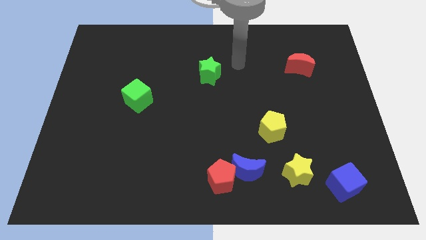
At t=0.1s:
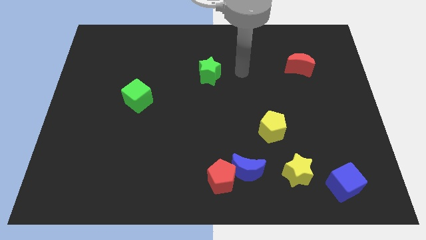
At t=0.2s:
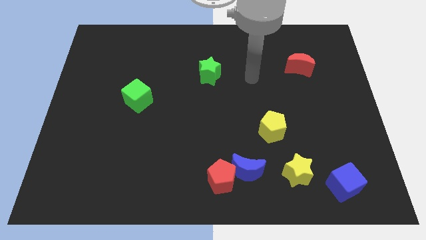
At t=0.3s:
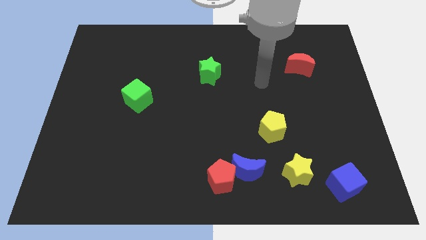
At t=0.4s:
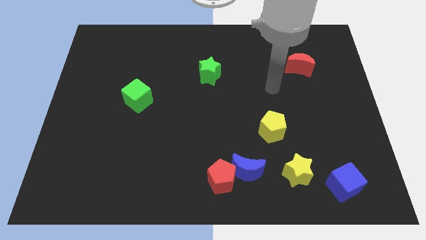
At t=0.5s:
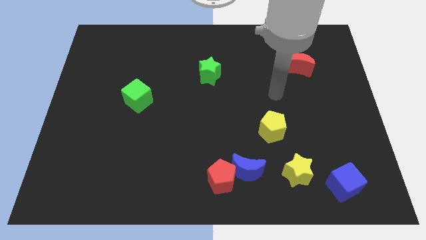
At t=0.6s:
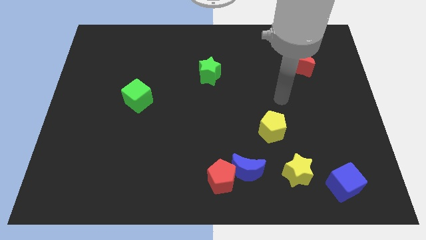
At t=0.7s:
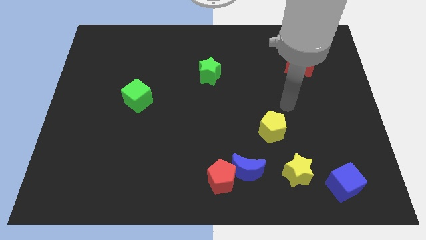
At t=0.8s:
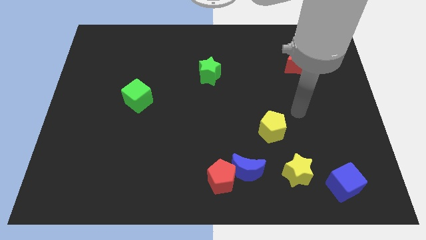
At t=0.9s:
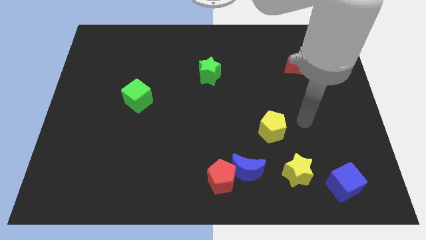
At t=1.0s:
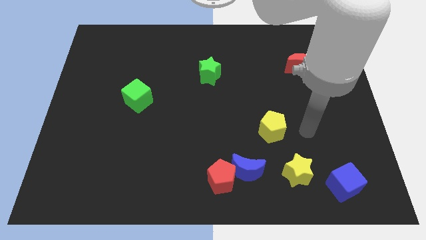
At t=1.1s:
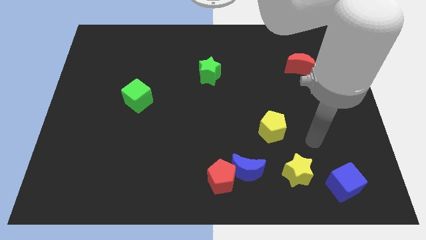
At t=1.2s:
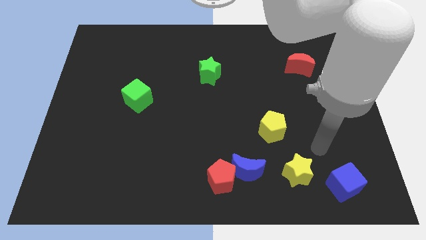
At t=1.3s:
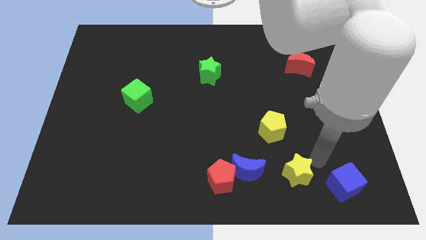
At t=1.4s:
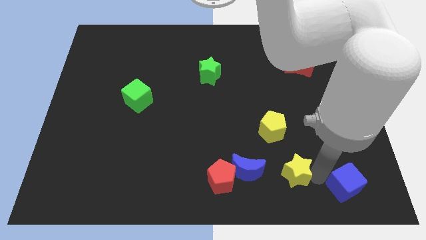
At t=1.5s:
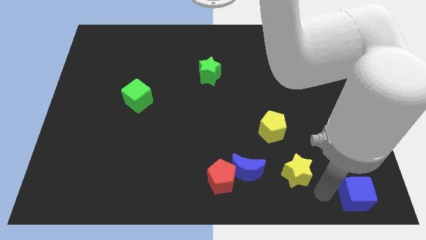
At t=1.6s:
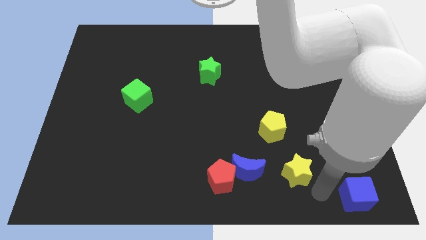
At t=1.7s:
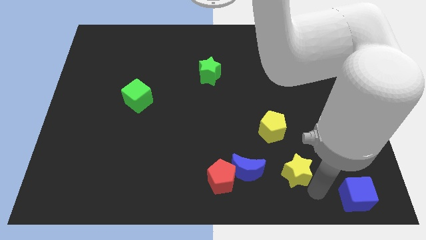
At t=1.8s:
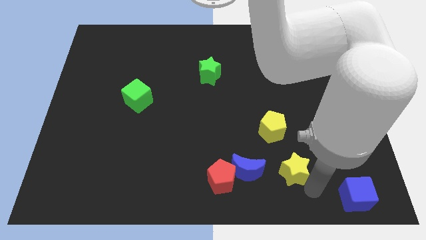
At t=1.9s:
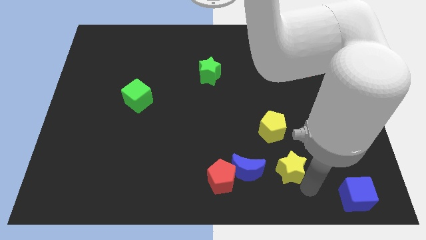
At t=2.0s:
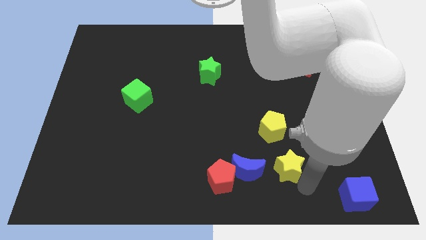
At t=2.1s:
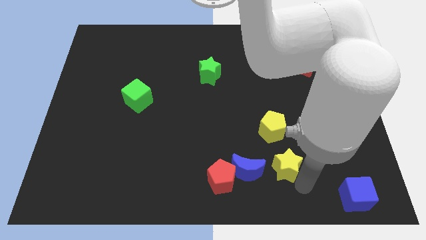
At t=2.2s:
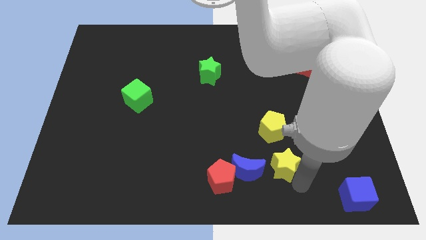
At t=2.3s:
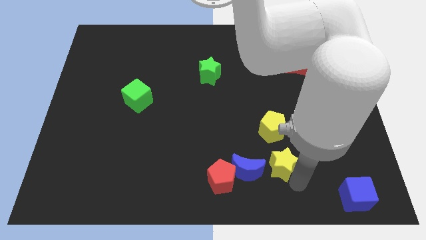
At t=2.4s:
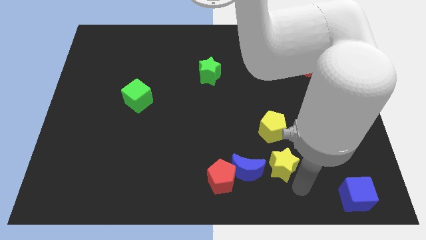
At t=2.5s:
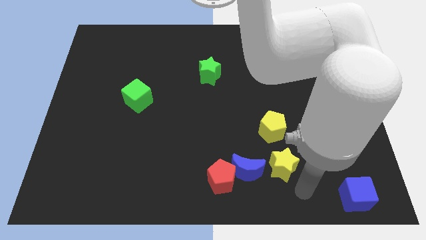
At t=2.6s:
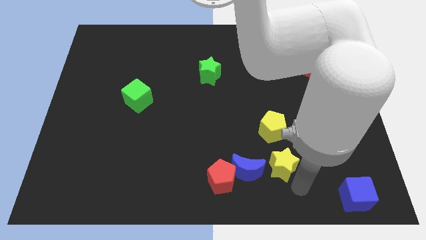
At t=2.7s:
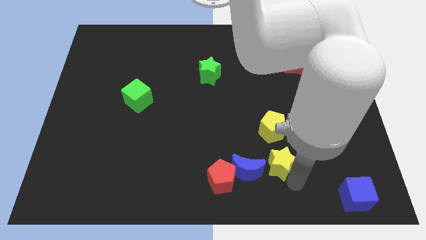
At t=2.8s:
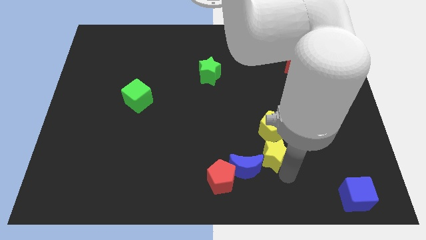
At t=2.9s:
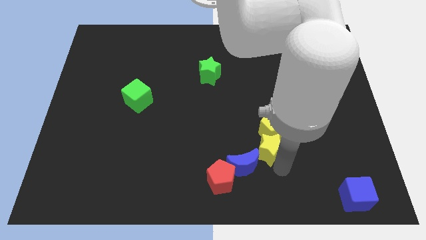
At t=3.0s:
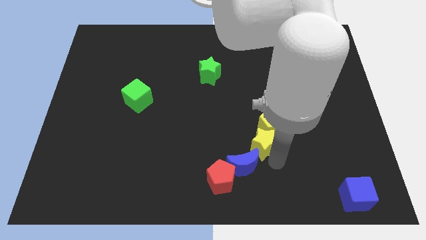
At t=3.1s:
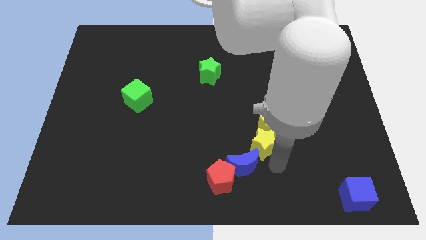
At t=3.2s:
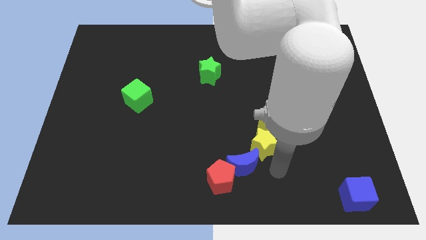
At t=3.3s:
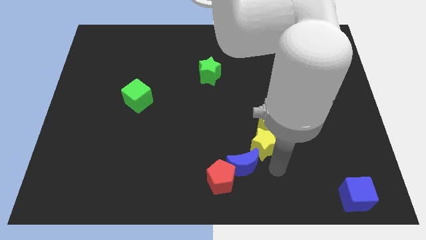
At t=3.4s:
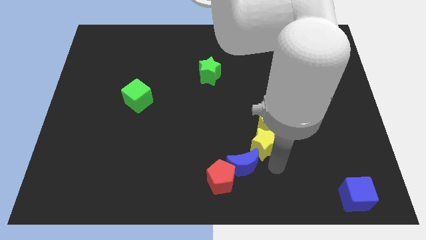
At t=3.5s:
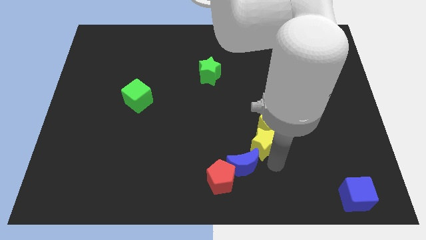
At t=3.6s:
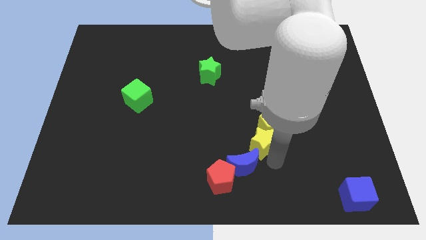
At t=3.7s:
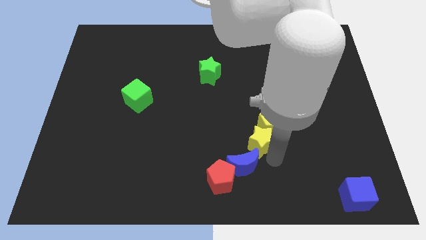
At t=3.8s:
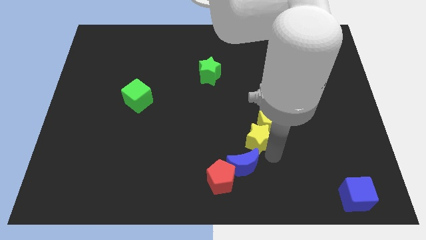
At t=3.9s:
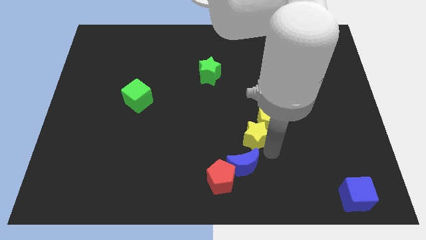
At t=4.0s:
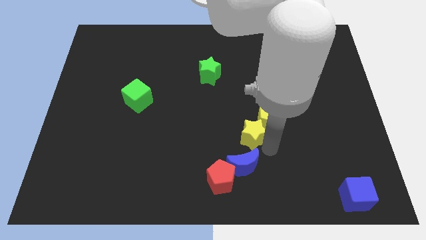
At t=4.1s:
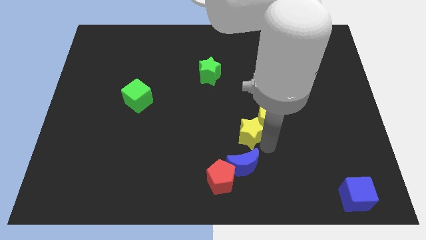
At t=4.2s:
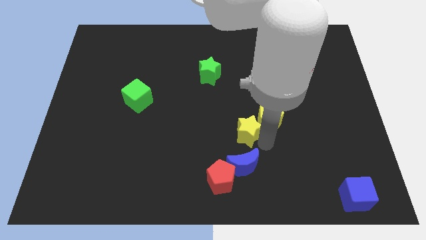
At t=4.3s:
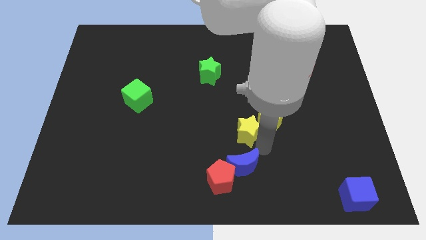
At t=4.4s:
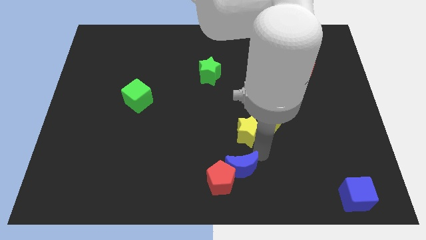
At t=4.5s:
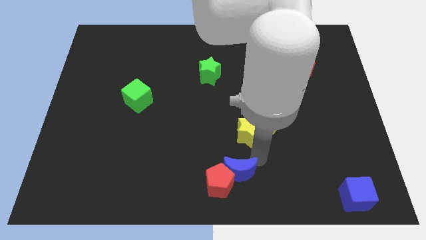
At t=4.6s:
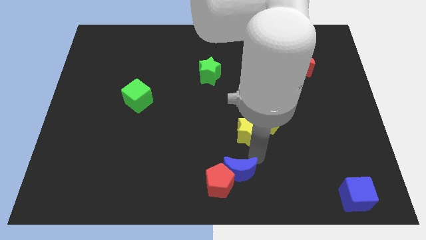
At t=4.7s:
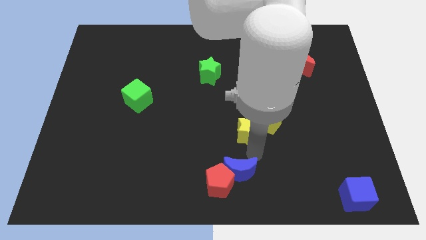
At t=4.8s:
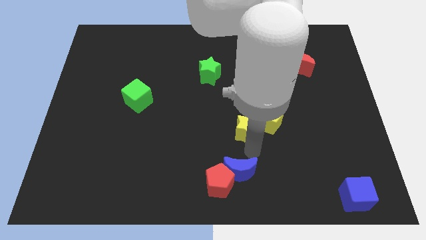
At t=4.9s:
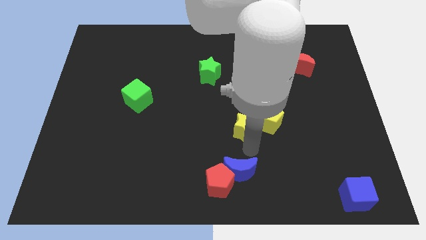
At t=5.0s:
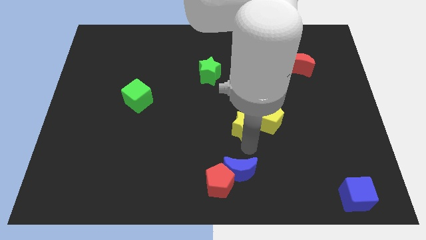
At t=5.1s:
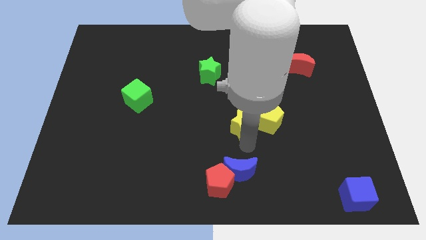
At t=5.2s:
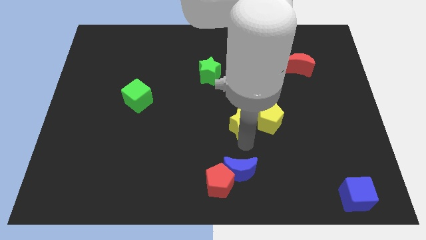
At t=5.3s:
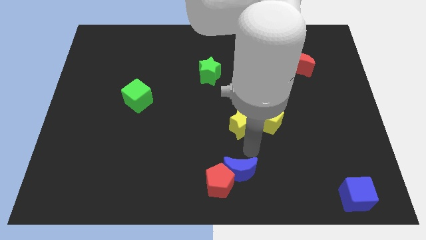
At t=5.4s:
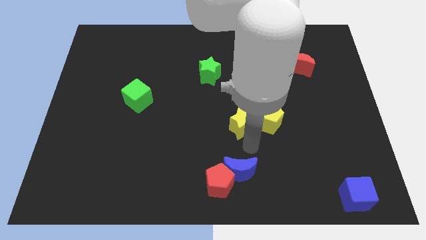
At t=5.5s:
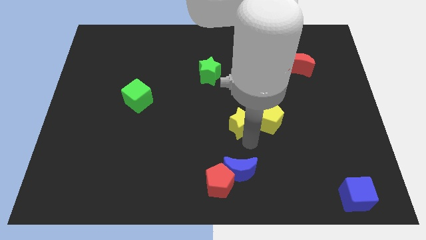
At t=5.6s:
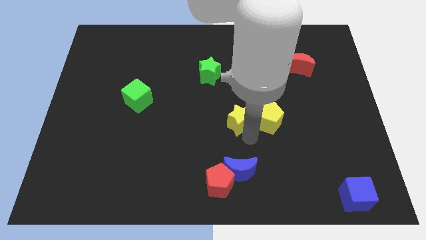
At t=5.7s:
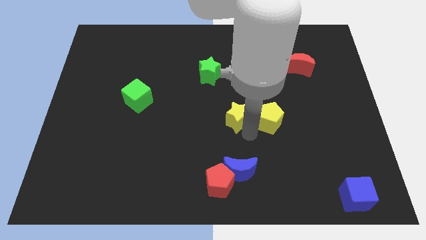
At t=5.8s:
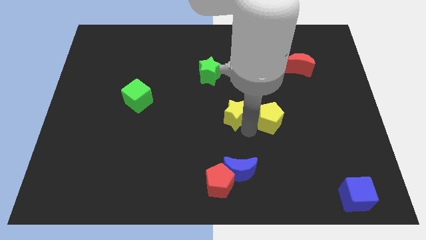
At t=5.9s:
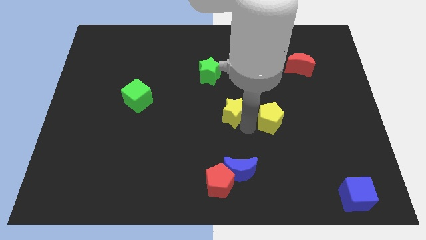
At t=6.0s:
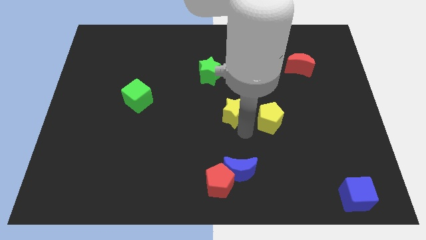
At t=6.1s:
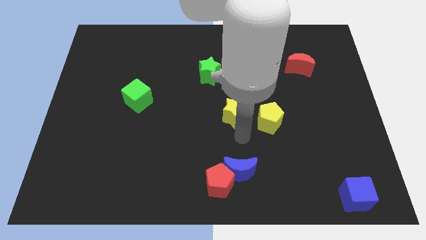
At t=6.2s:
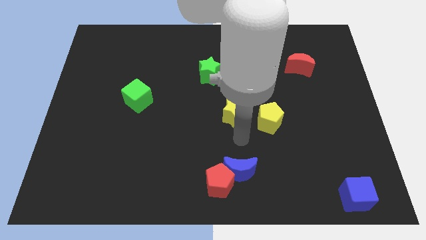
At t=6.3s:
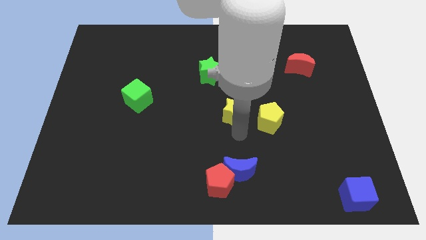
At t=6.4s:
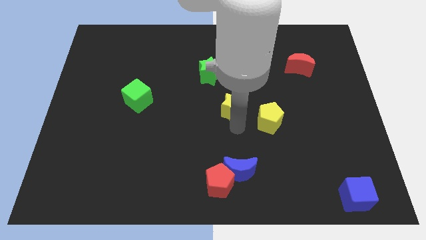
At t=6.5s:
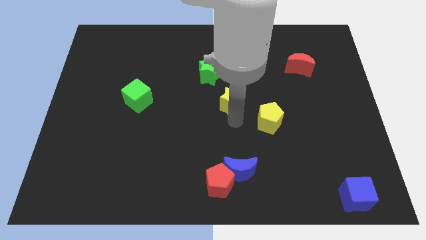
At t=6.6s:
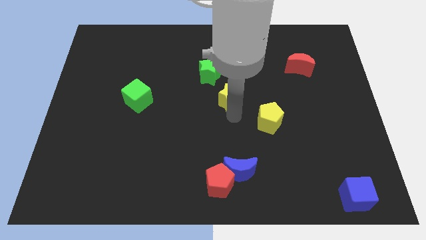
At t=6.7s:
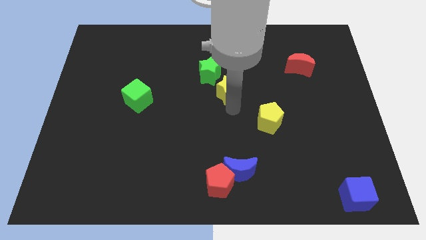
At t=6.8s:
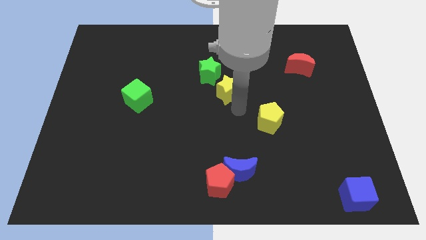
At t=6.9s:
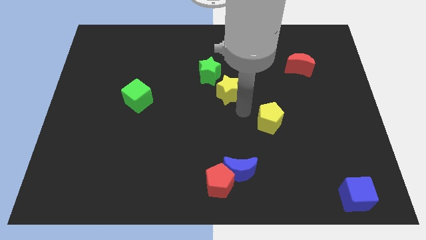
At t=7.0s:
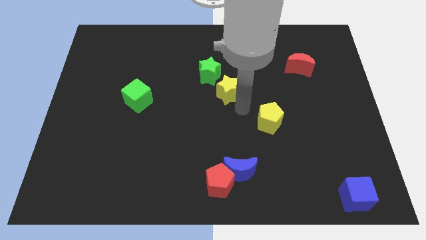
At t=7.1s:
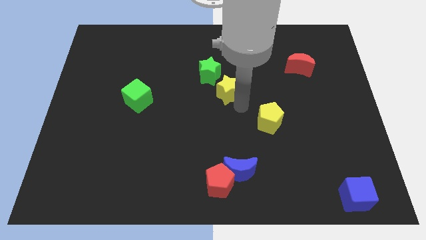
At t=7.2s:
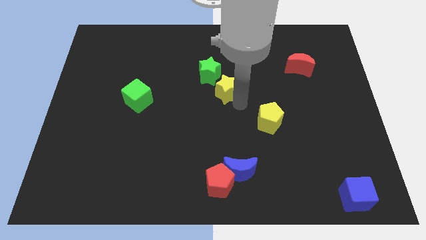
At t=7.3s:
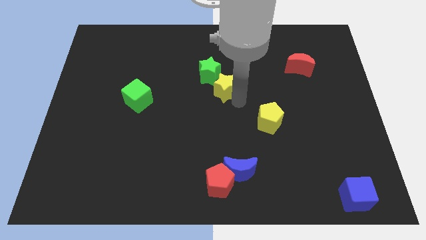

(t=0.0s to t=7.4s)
move the yellow star close to the green star

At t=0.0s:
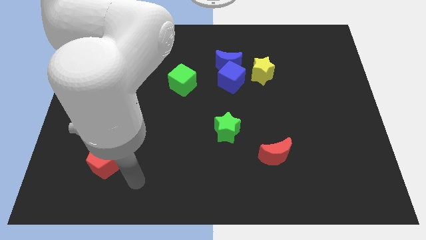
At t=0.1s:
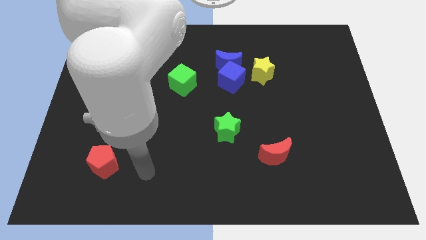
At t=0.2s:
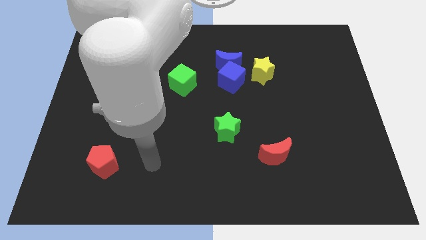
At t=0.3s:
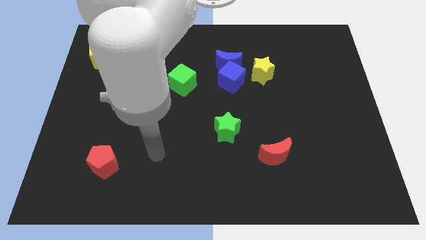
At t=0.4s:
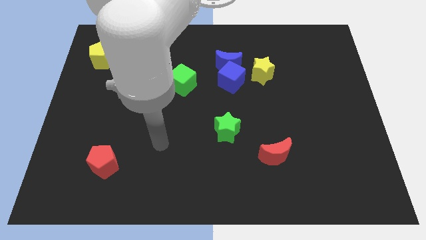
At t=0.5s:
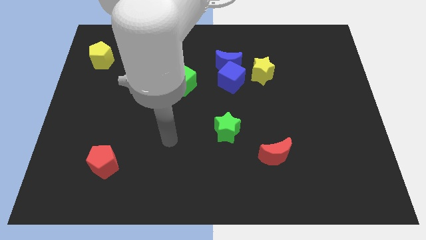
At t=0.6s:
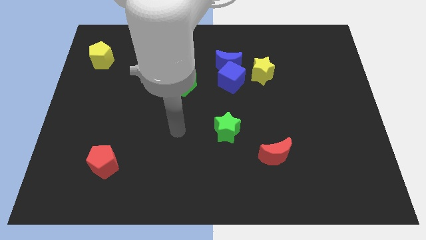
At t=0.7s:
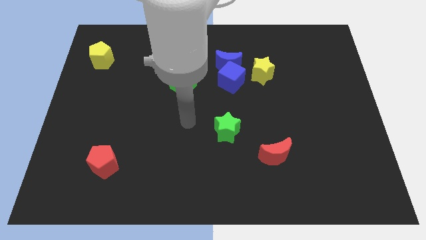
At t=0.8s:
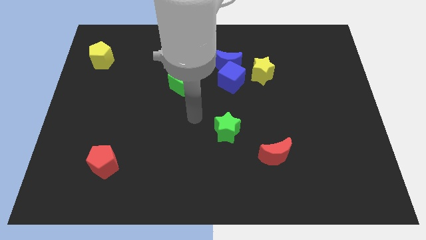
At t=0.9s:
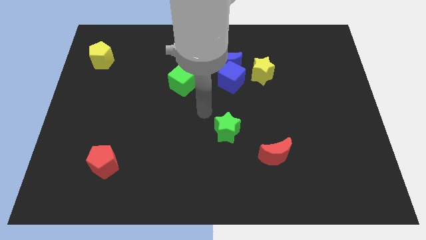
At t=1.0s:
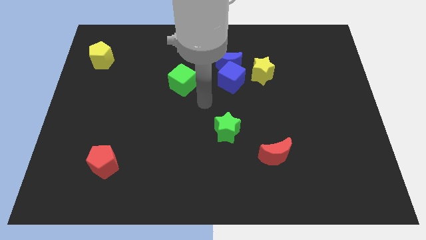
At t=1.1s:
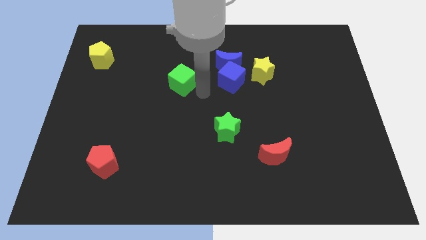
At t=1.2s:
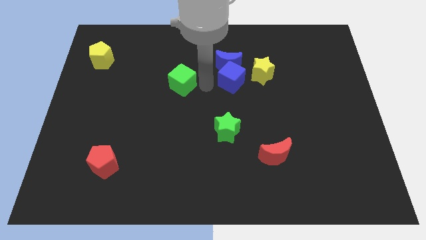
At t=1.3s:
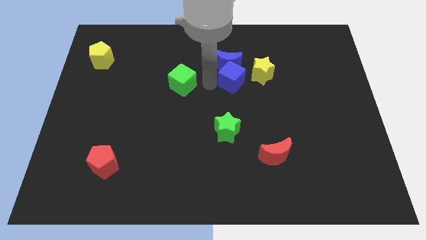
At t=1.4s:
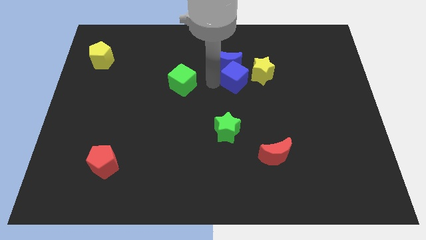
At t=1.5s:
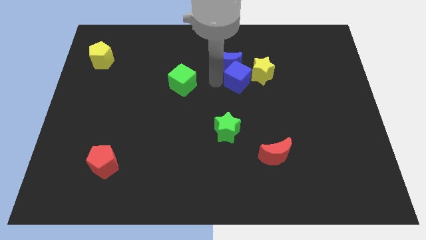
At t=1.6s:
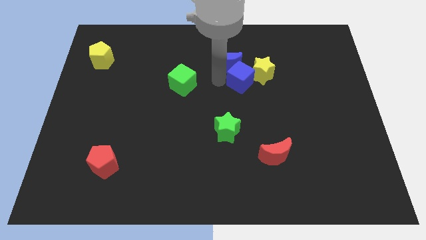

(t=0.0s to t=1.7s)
push the blue cube close to the yellow star
